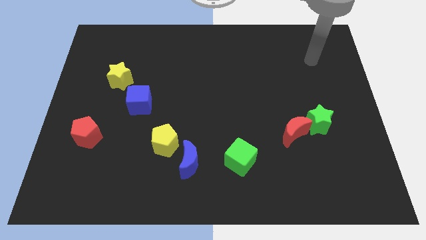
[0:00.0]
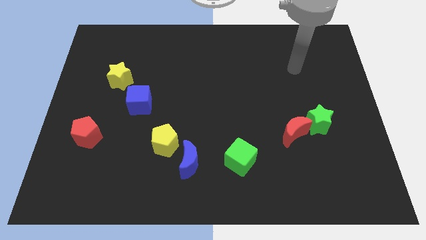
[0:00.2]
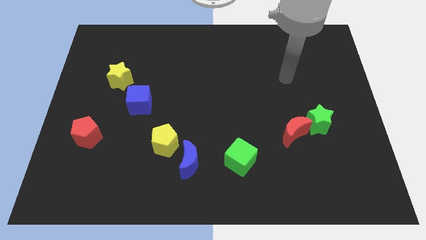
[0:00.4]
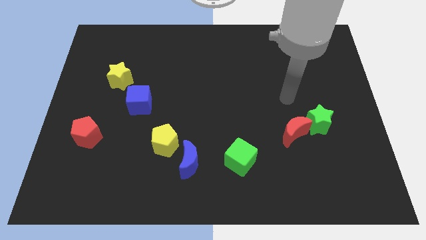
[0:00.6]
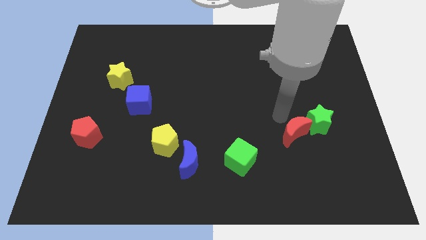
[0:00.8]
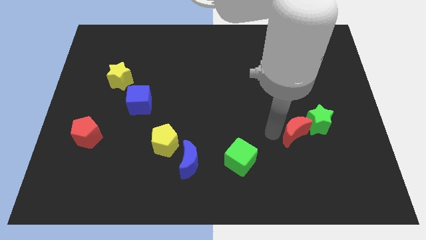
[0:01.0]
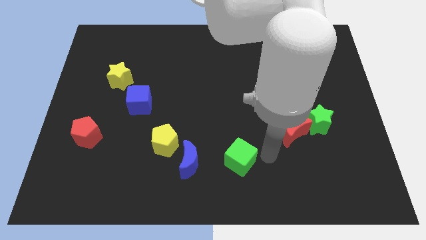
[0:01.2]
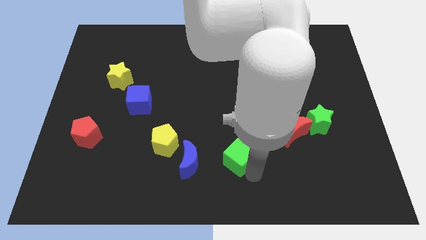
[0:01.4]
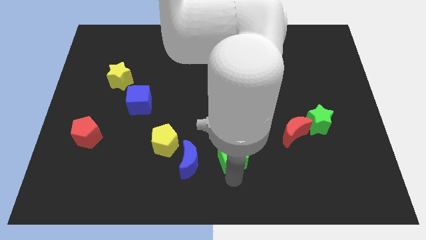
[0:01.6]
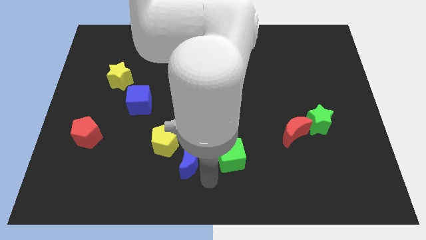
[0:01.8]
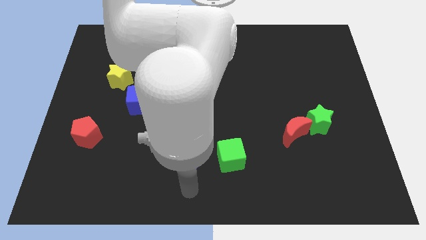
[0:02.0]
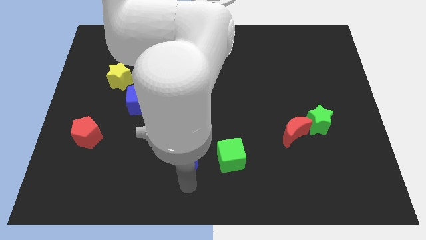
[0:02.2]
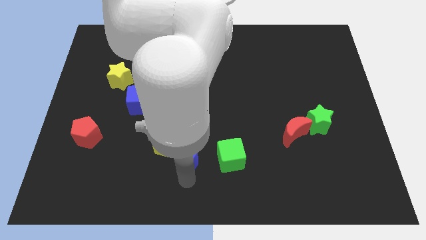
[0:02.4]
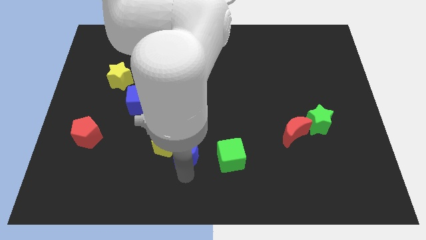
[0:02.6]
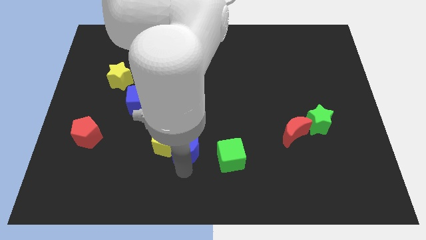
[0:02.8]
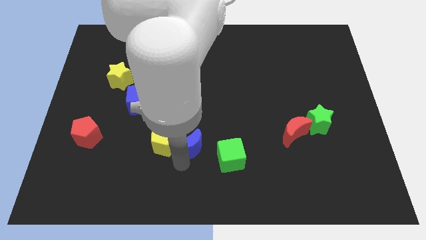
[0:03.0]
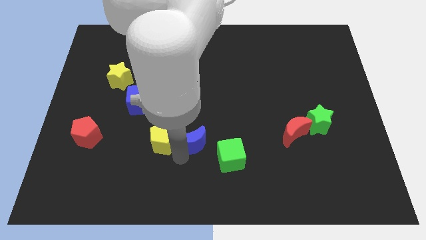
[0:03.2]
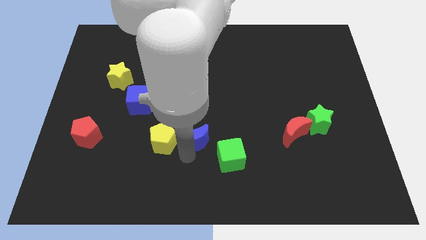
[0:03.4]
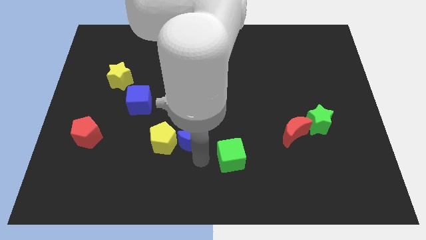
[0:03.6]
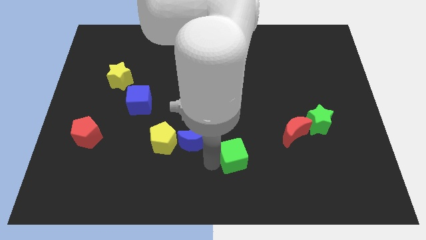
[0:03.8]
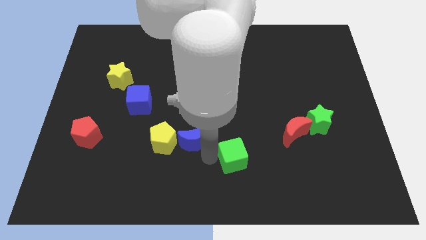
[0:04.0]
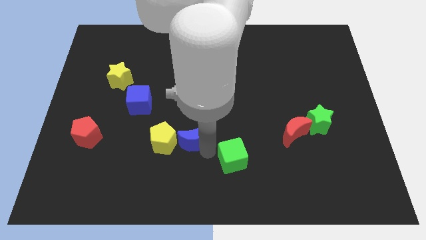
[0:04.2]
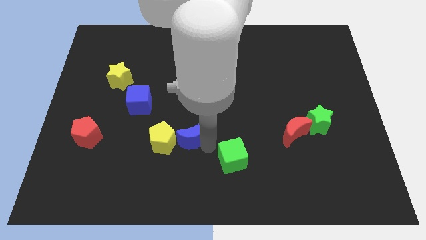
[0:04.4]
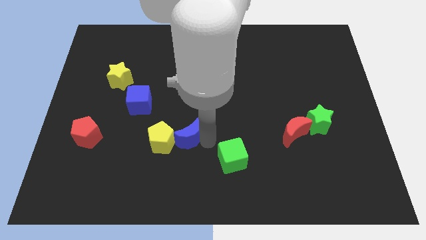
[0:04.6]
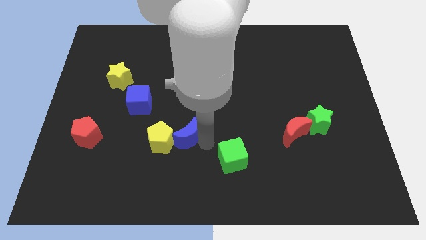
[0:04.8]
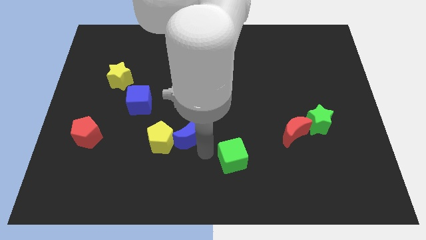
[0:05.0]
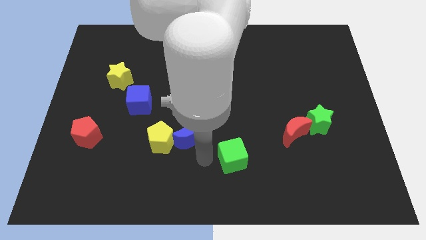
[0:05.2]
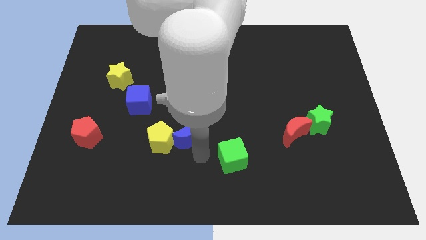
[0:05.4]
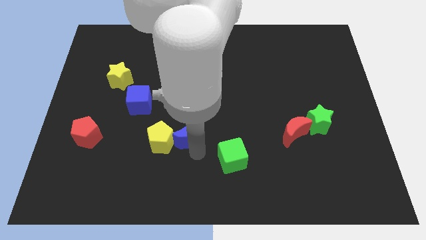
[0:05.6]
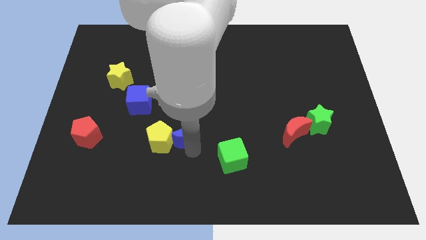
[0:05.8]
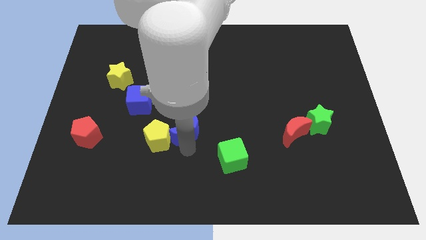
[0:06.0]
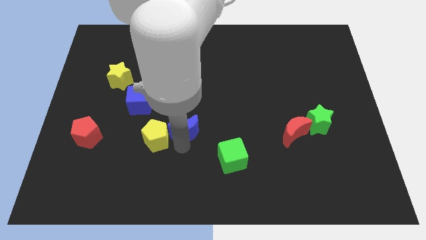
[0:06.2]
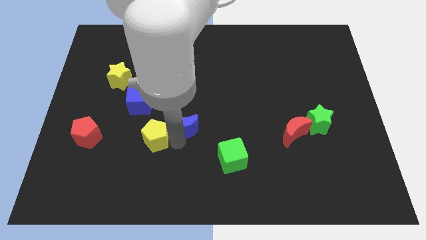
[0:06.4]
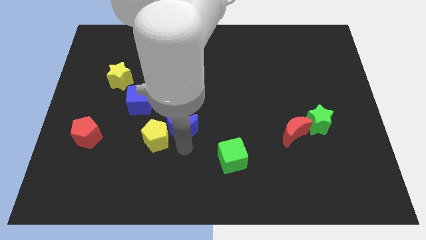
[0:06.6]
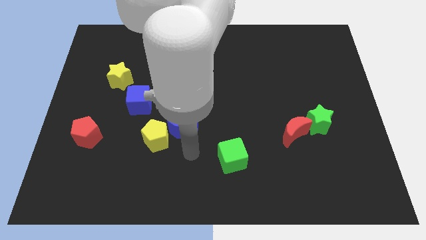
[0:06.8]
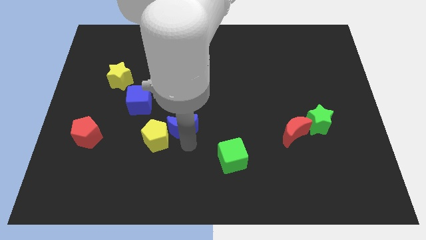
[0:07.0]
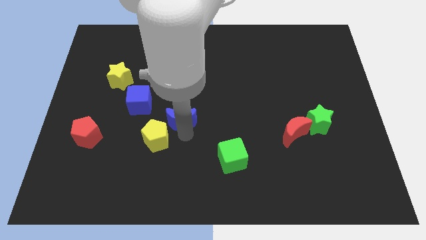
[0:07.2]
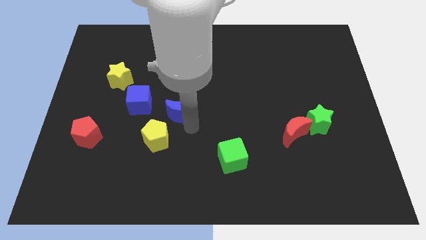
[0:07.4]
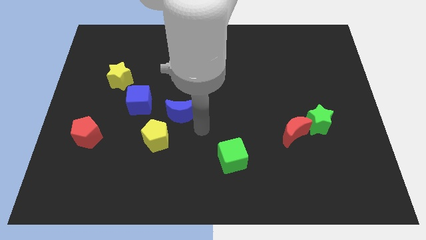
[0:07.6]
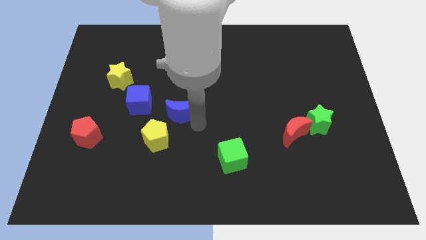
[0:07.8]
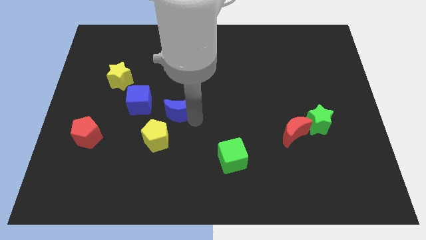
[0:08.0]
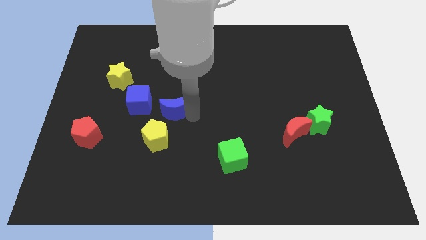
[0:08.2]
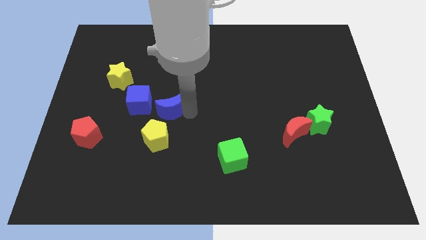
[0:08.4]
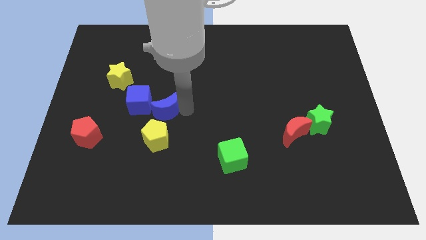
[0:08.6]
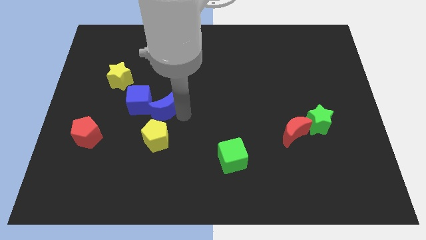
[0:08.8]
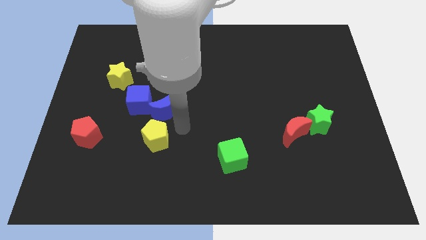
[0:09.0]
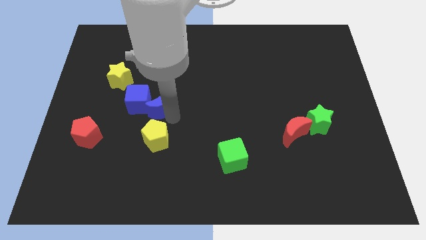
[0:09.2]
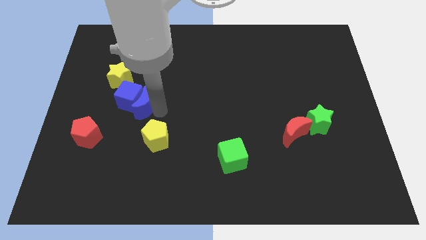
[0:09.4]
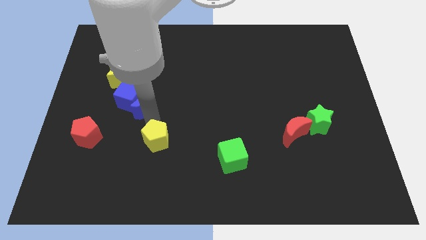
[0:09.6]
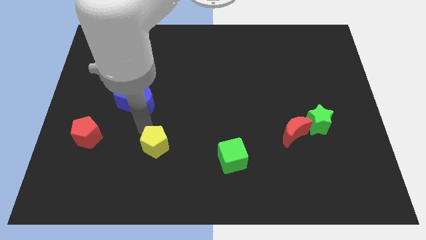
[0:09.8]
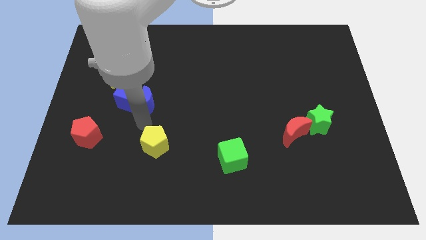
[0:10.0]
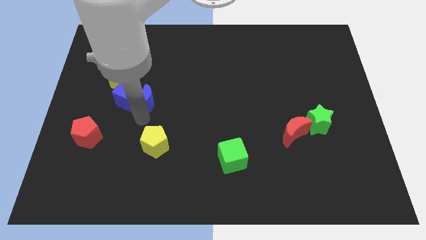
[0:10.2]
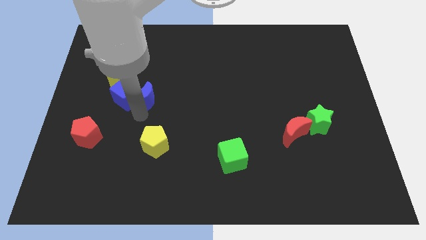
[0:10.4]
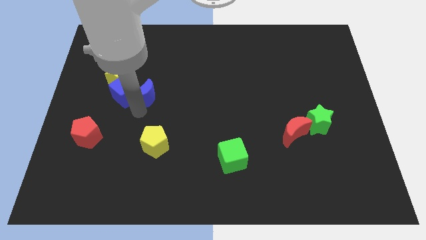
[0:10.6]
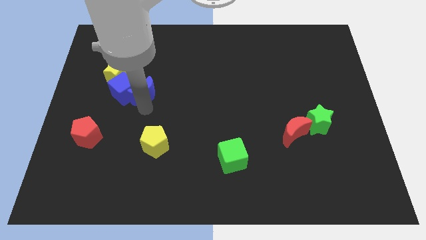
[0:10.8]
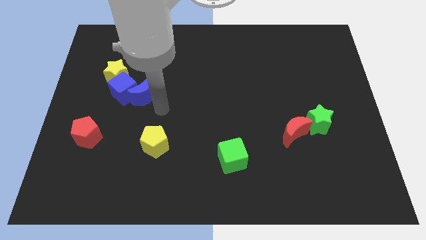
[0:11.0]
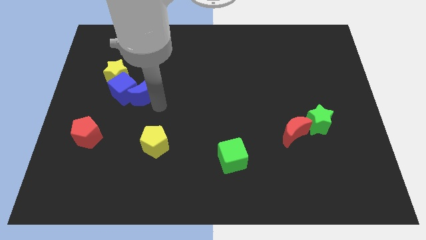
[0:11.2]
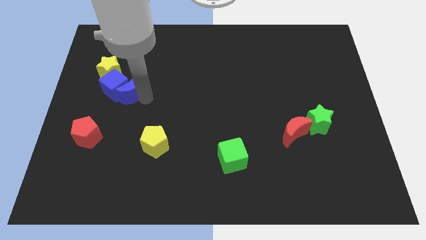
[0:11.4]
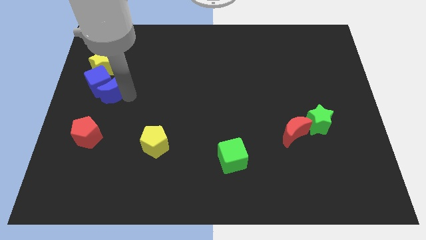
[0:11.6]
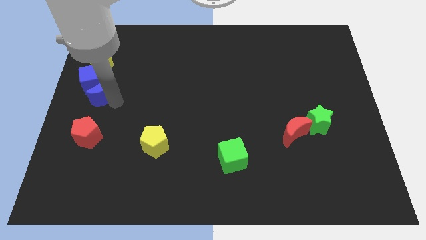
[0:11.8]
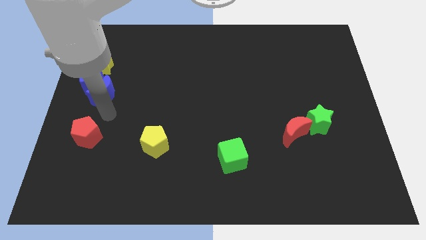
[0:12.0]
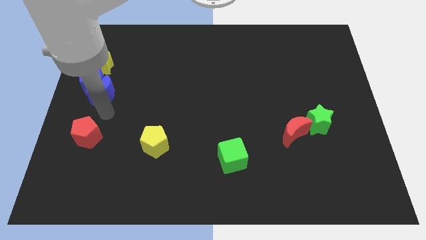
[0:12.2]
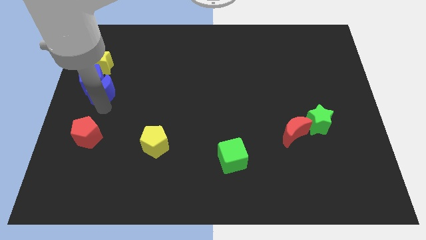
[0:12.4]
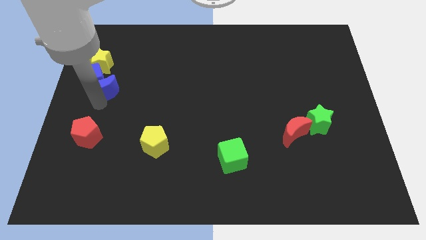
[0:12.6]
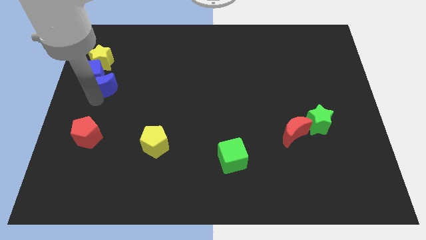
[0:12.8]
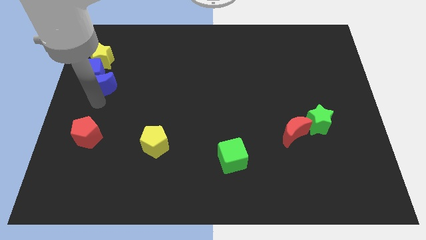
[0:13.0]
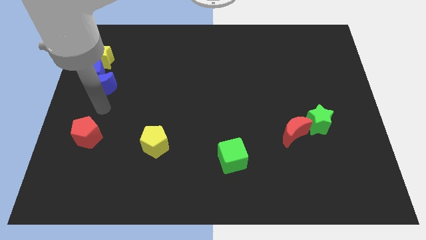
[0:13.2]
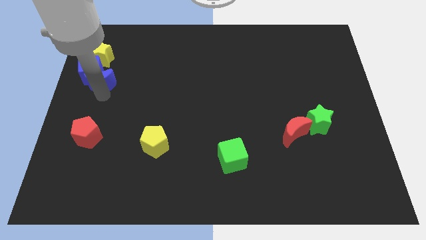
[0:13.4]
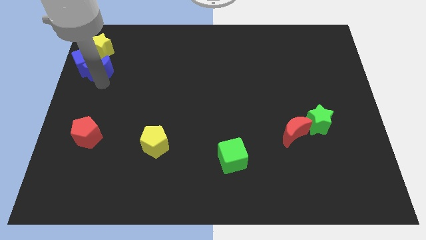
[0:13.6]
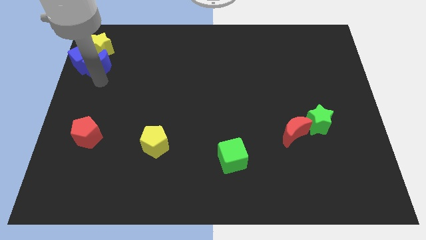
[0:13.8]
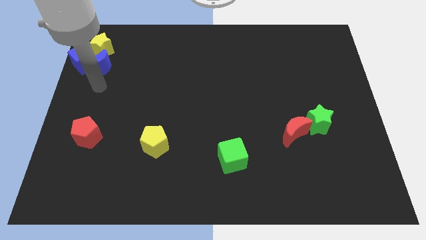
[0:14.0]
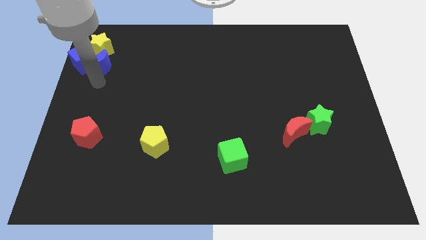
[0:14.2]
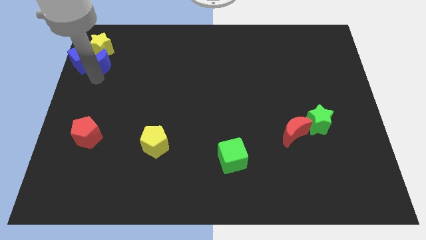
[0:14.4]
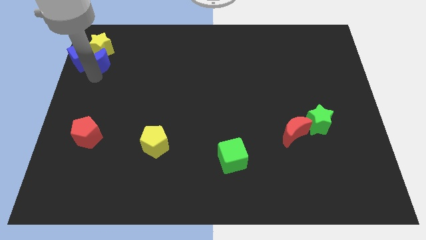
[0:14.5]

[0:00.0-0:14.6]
slide the blue moon towards the yellow star

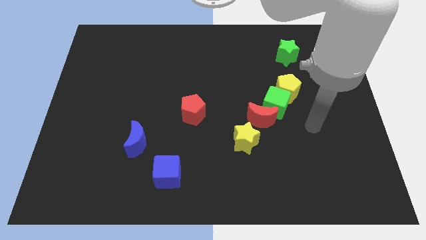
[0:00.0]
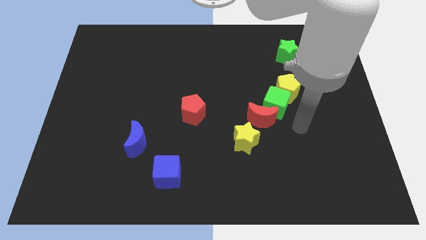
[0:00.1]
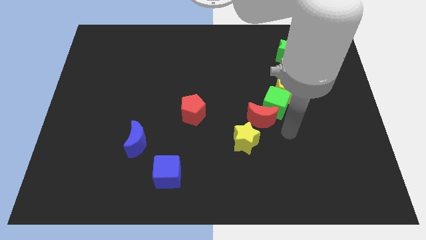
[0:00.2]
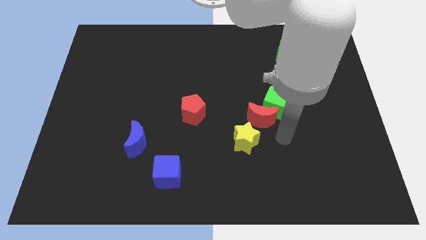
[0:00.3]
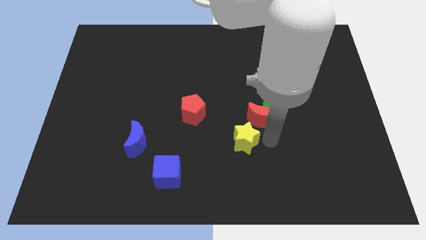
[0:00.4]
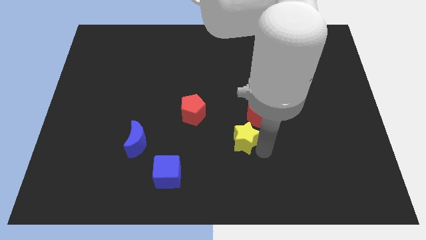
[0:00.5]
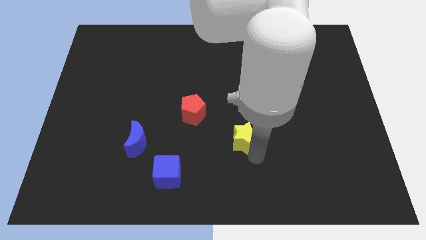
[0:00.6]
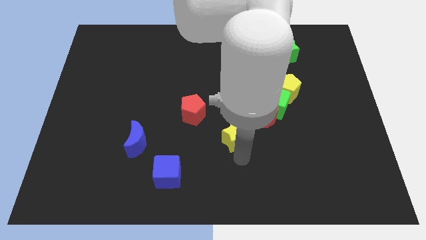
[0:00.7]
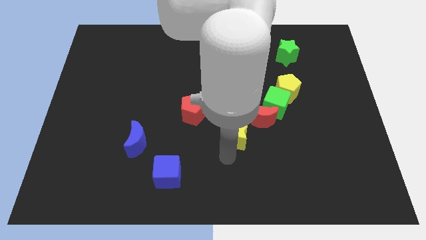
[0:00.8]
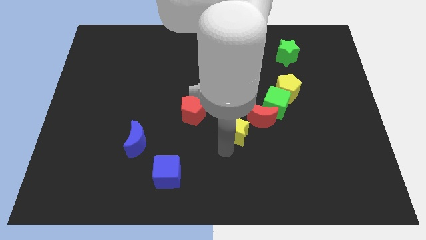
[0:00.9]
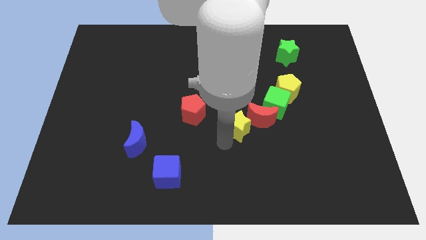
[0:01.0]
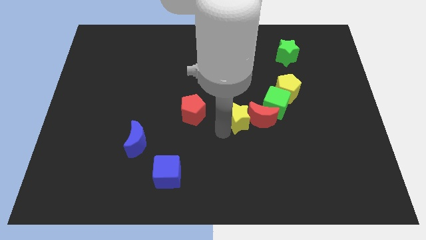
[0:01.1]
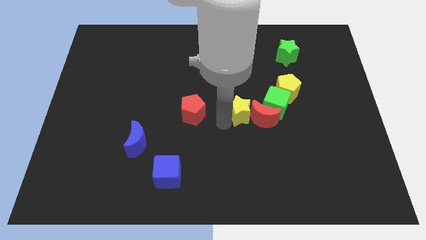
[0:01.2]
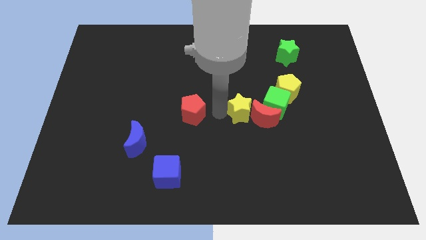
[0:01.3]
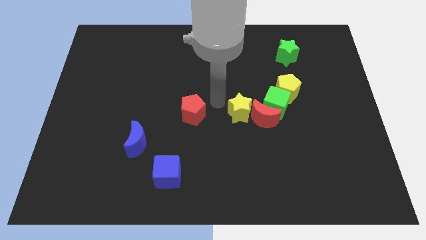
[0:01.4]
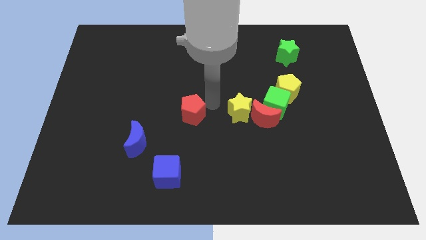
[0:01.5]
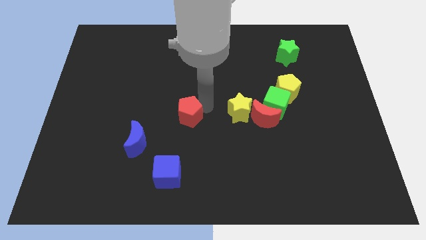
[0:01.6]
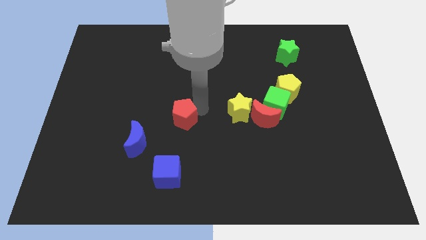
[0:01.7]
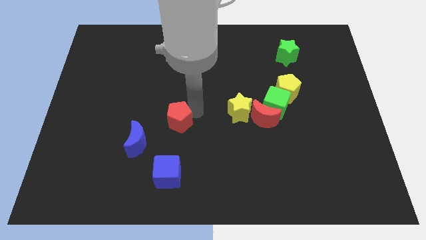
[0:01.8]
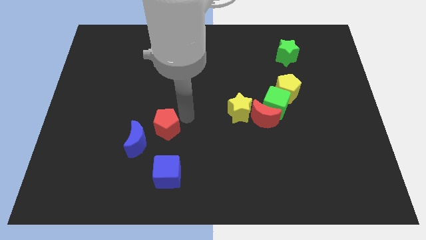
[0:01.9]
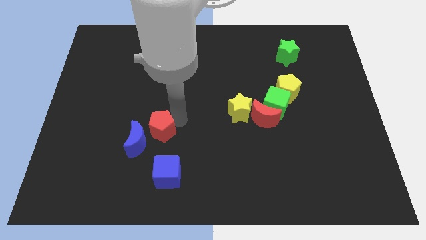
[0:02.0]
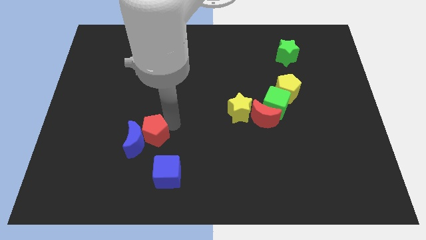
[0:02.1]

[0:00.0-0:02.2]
push the red pentagon next to the blue moon
